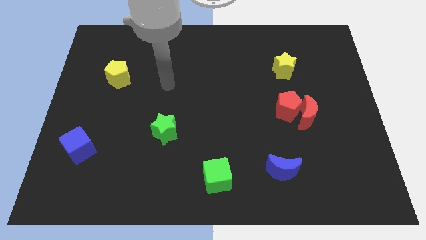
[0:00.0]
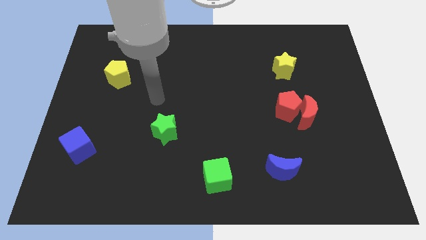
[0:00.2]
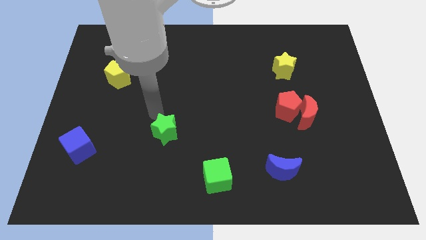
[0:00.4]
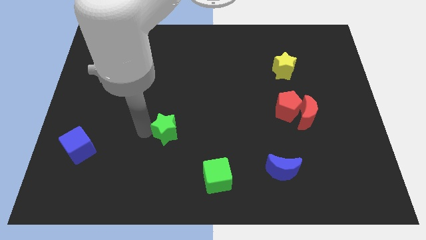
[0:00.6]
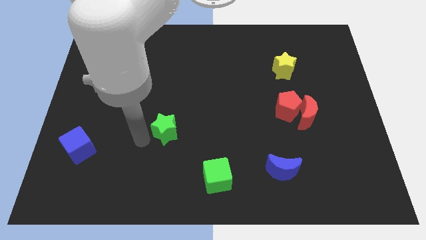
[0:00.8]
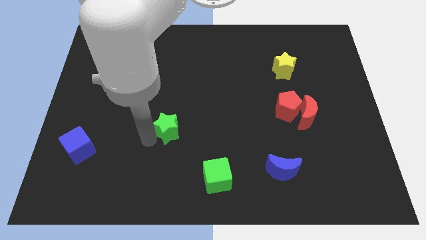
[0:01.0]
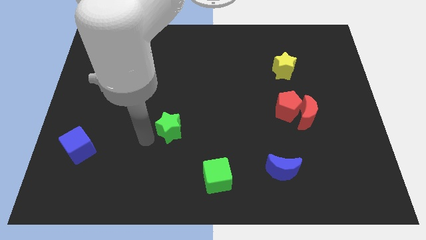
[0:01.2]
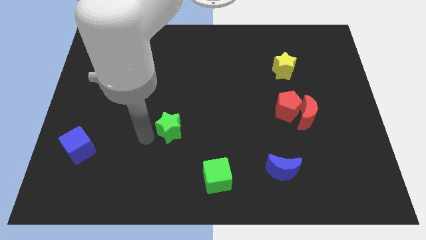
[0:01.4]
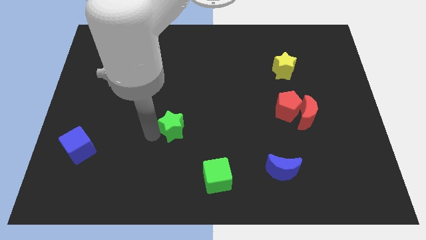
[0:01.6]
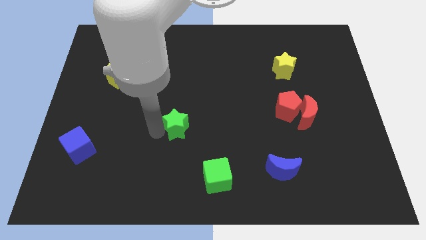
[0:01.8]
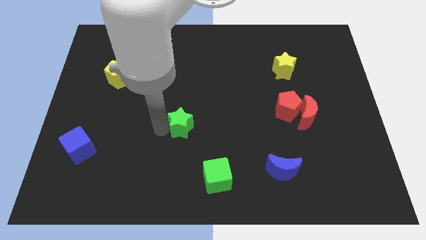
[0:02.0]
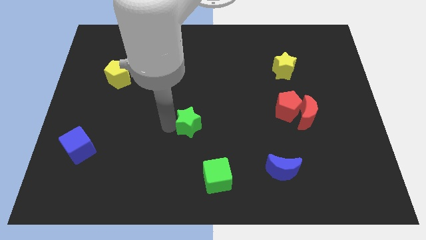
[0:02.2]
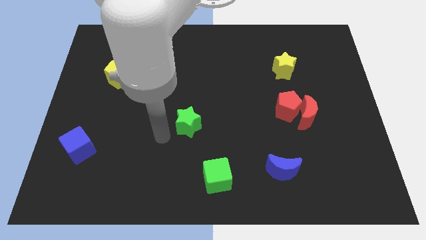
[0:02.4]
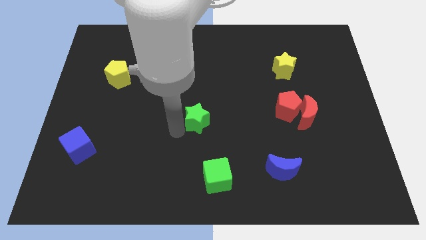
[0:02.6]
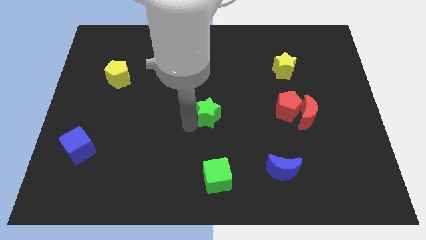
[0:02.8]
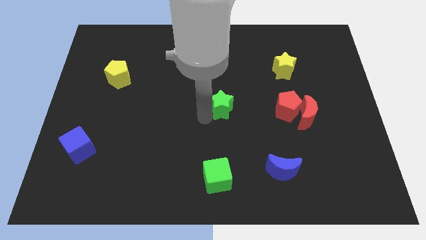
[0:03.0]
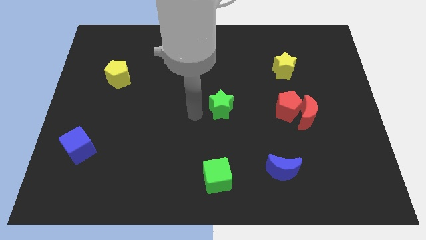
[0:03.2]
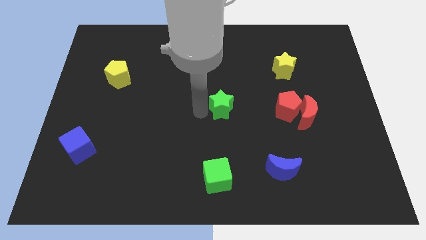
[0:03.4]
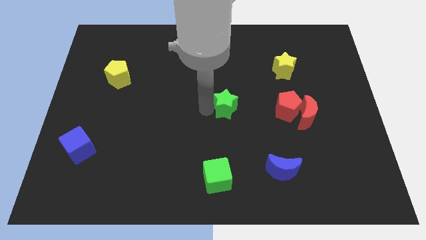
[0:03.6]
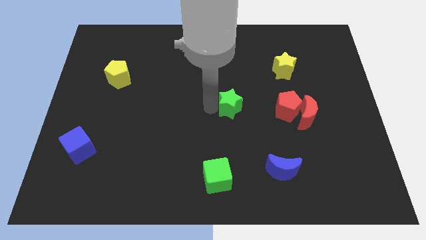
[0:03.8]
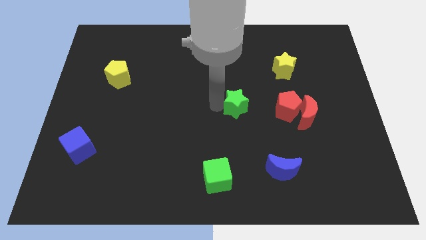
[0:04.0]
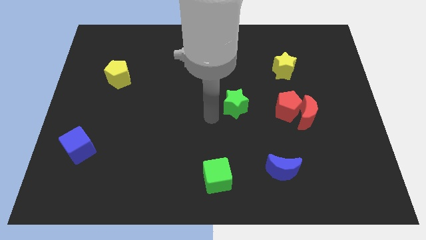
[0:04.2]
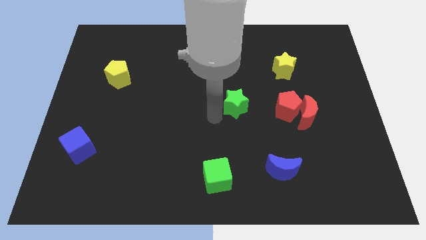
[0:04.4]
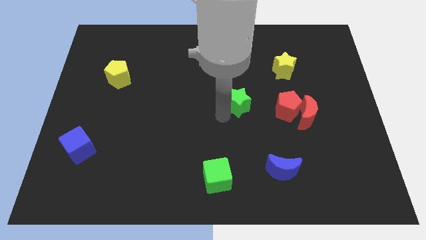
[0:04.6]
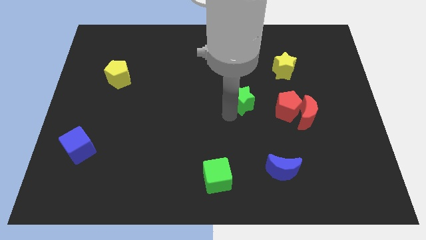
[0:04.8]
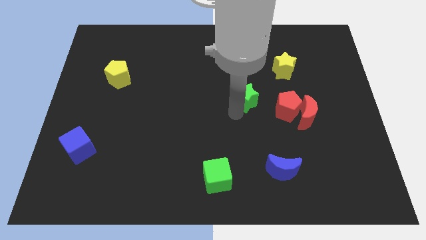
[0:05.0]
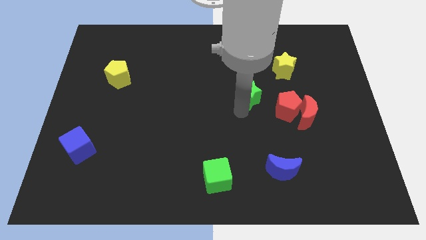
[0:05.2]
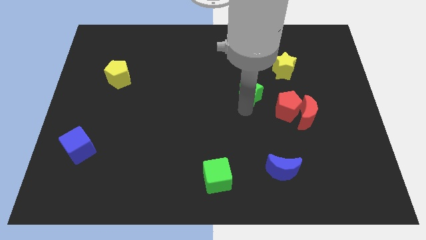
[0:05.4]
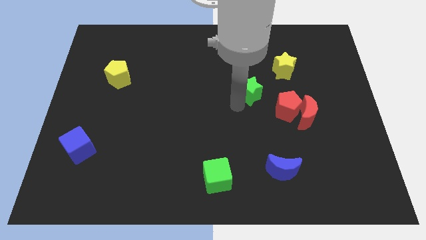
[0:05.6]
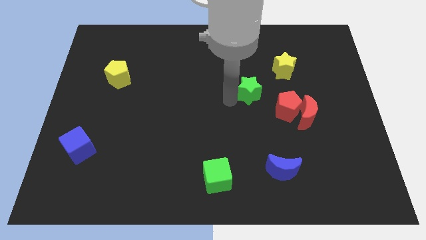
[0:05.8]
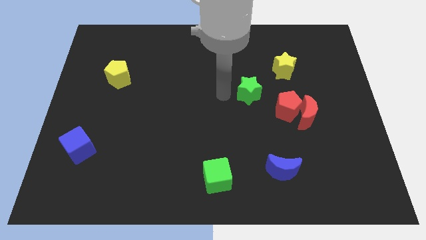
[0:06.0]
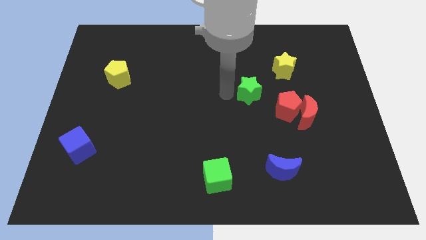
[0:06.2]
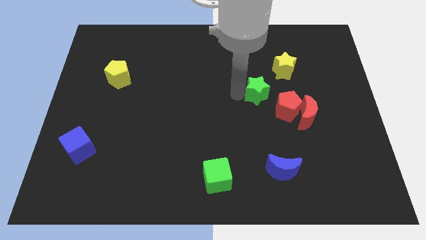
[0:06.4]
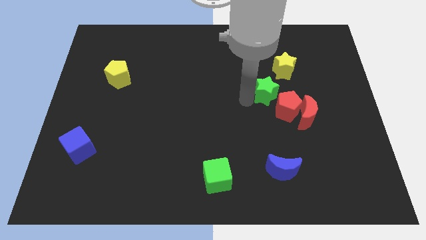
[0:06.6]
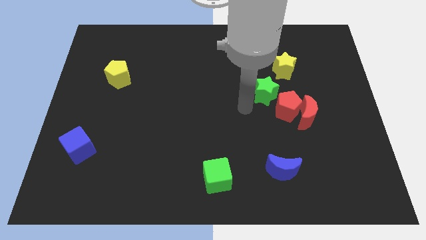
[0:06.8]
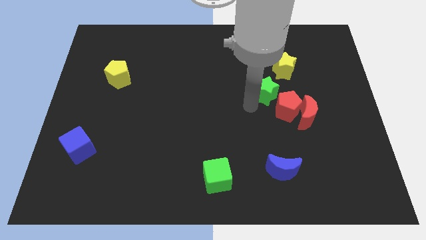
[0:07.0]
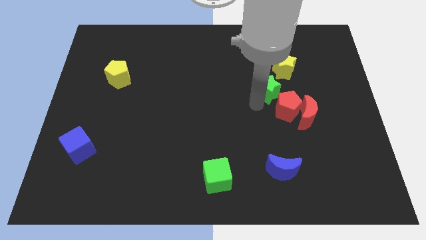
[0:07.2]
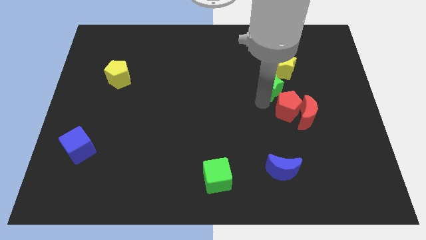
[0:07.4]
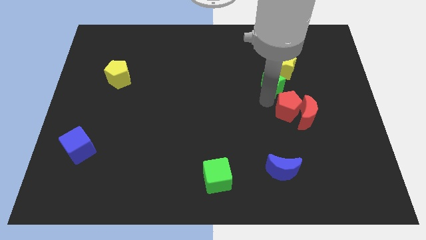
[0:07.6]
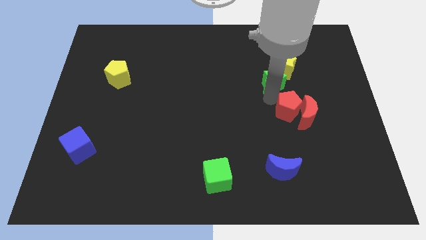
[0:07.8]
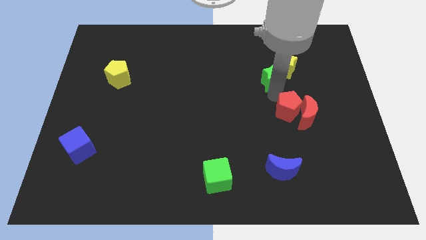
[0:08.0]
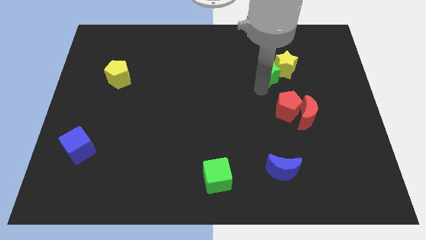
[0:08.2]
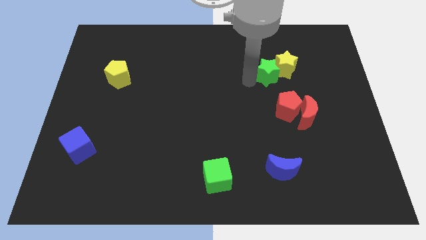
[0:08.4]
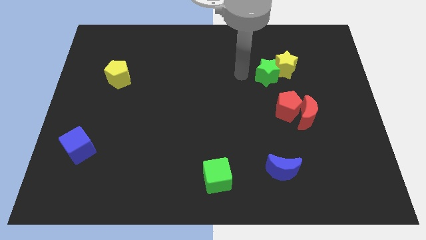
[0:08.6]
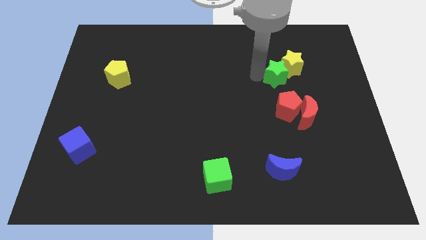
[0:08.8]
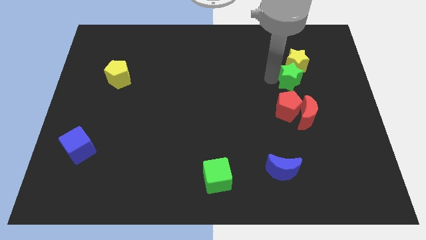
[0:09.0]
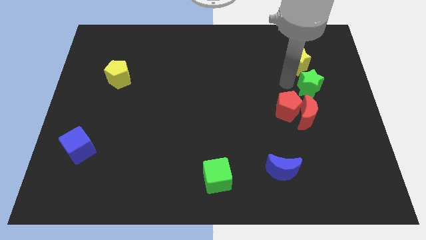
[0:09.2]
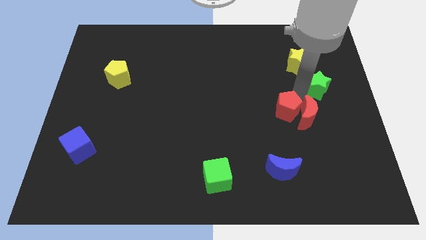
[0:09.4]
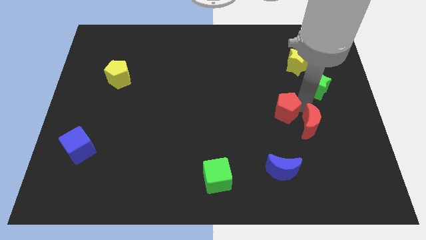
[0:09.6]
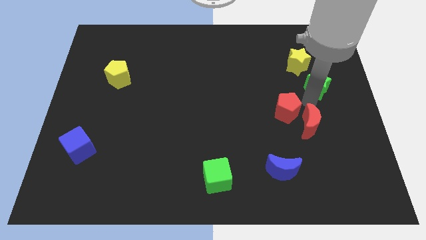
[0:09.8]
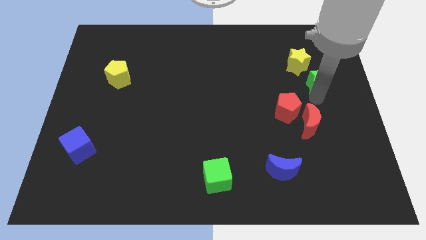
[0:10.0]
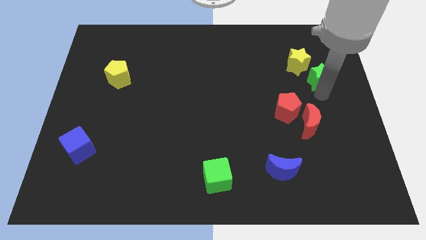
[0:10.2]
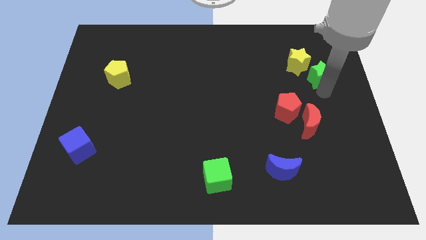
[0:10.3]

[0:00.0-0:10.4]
push the green star just right of the yellow star

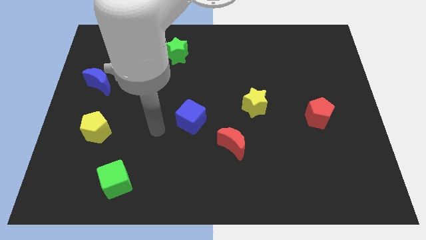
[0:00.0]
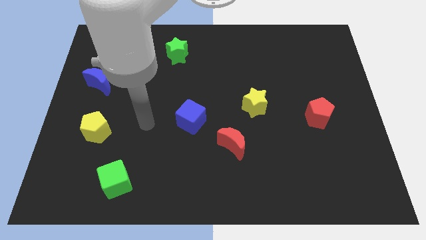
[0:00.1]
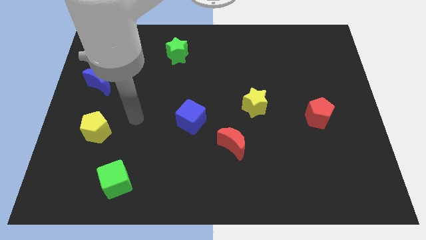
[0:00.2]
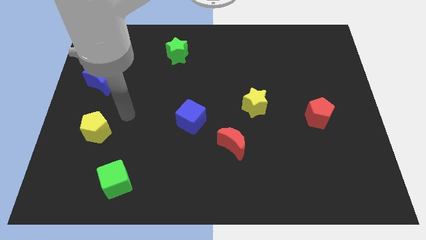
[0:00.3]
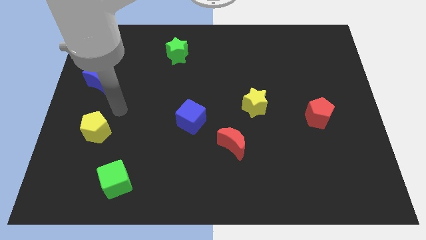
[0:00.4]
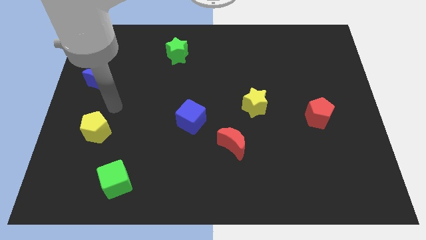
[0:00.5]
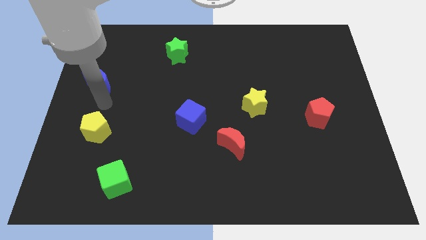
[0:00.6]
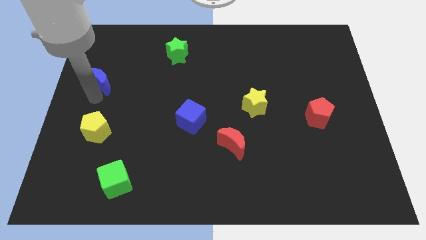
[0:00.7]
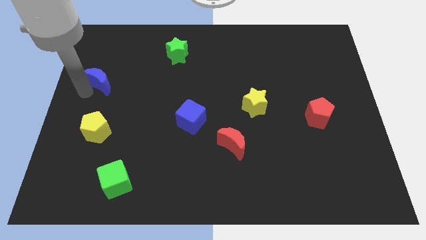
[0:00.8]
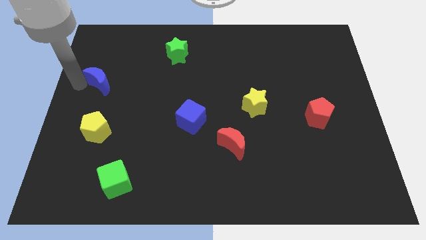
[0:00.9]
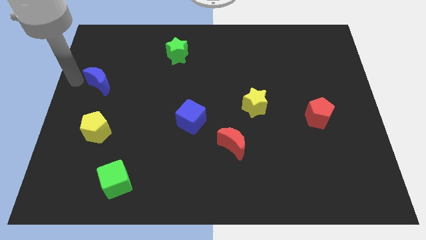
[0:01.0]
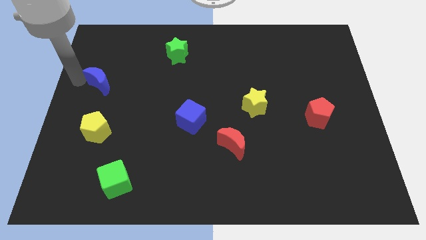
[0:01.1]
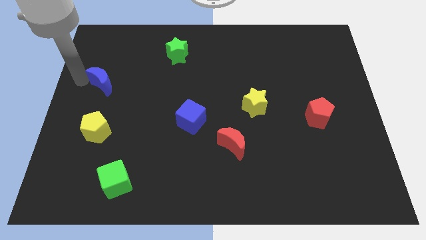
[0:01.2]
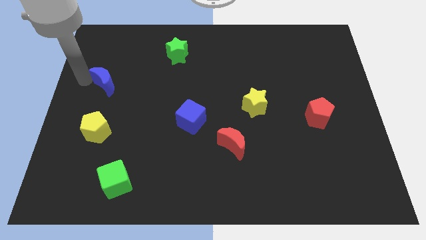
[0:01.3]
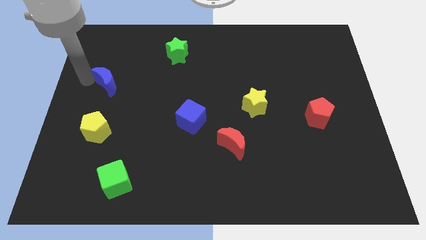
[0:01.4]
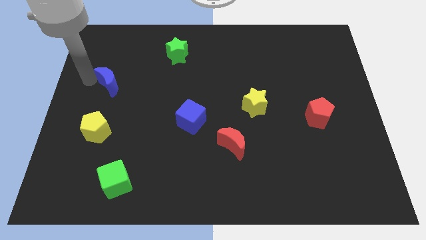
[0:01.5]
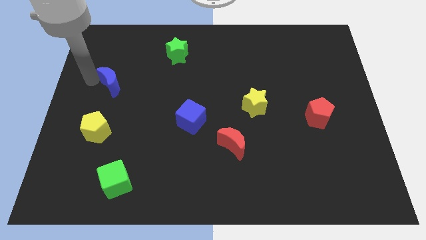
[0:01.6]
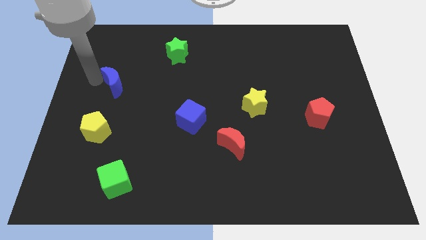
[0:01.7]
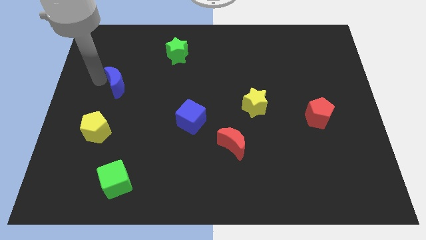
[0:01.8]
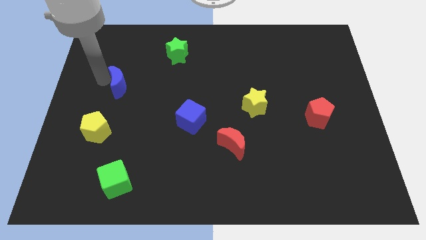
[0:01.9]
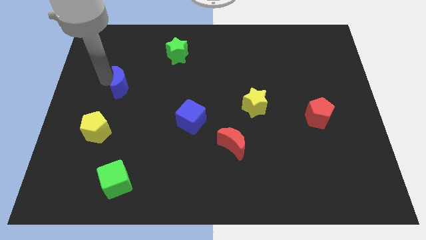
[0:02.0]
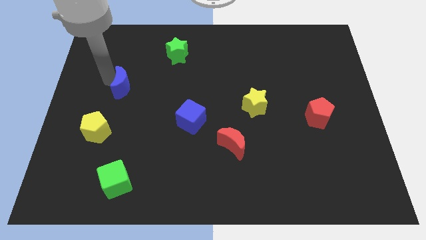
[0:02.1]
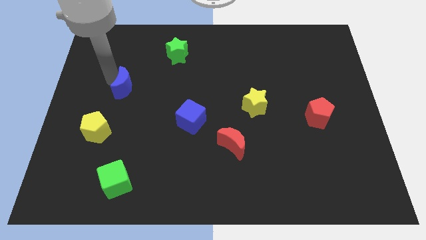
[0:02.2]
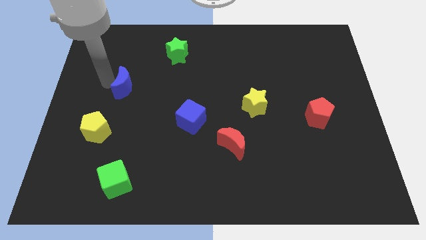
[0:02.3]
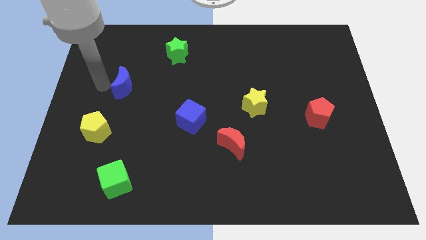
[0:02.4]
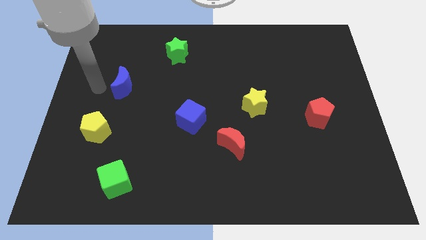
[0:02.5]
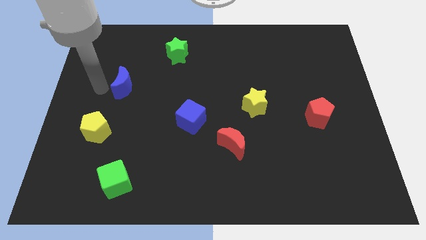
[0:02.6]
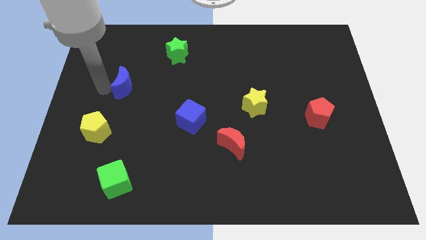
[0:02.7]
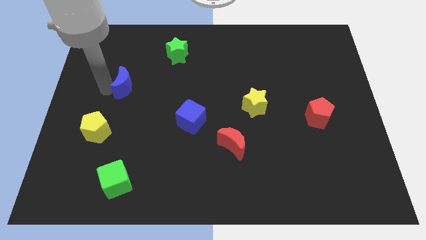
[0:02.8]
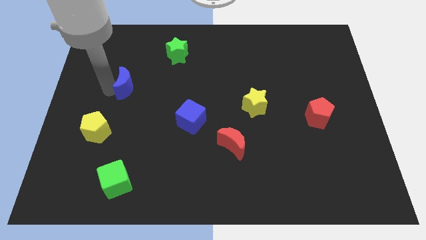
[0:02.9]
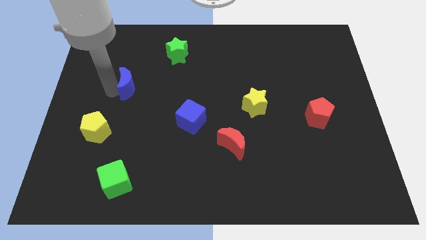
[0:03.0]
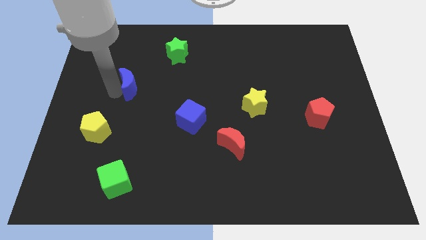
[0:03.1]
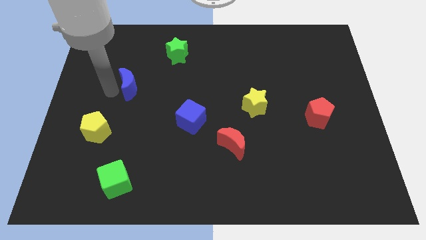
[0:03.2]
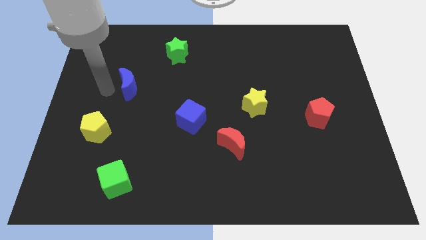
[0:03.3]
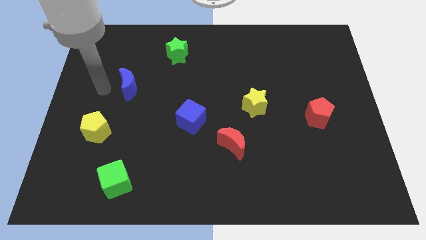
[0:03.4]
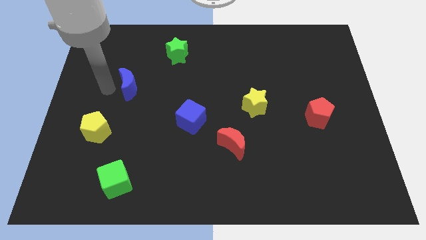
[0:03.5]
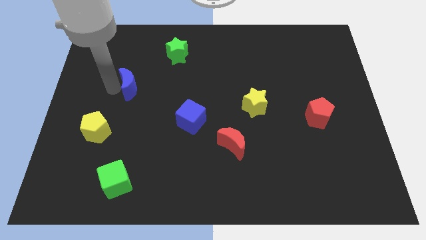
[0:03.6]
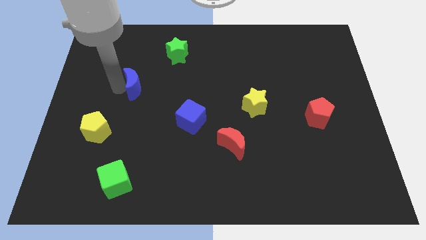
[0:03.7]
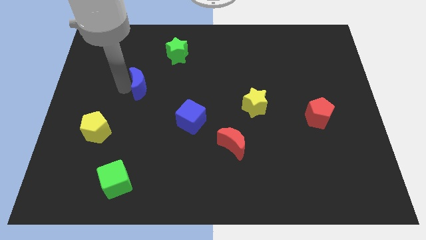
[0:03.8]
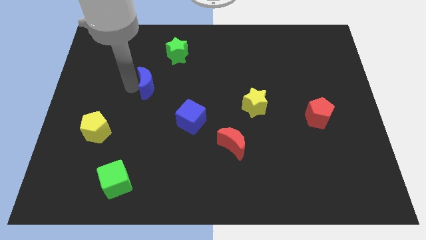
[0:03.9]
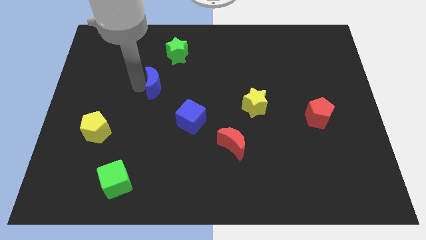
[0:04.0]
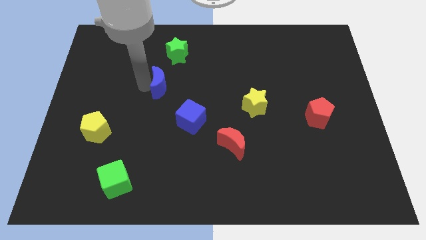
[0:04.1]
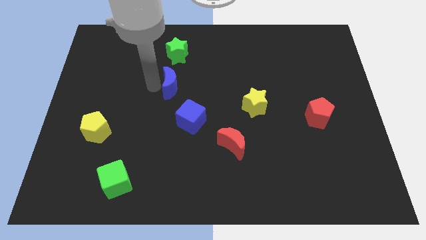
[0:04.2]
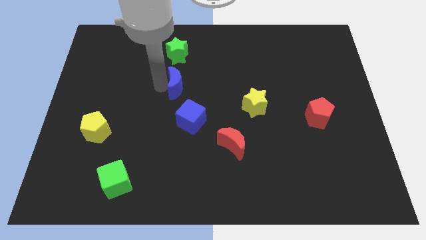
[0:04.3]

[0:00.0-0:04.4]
push the blue moon above the blue cube
